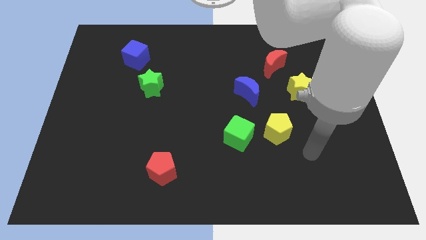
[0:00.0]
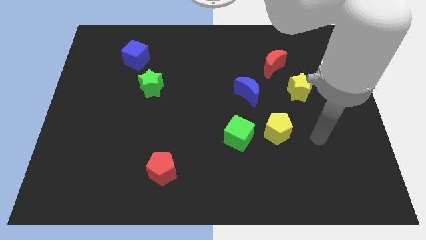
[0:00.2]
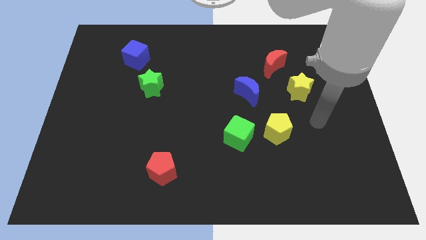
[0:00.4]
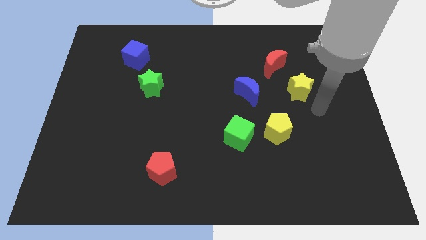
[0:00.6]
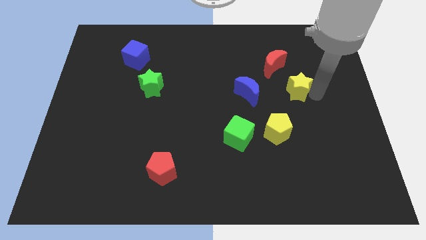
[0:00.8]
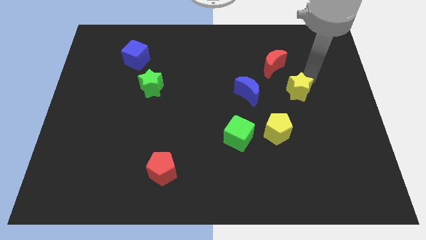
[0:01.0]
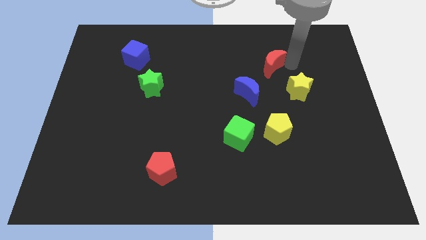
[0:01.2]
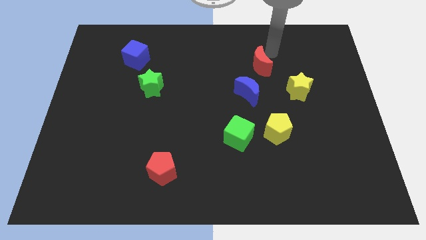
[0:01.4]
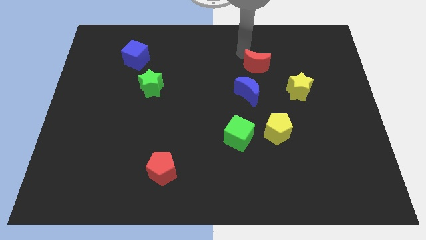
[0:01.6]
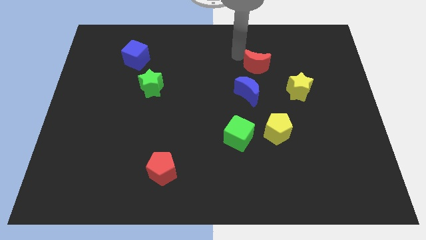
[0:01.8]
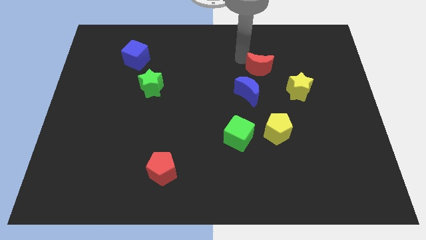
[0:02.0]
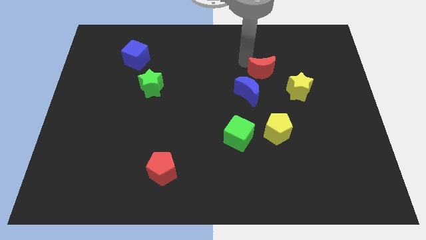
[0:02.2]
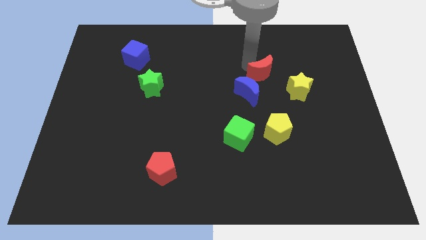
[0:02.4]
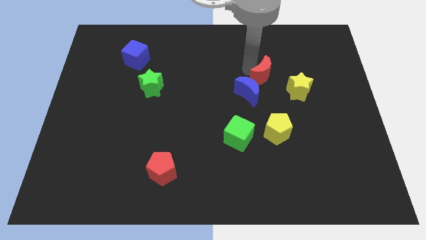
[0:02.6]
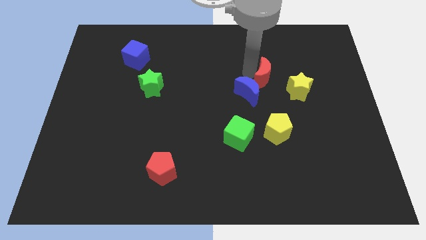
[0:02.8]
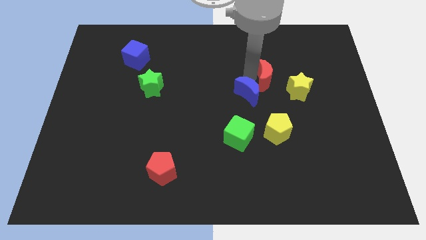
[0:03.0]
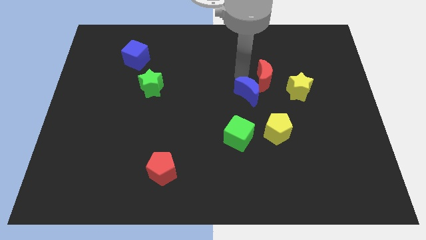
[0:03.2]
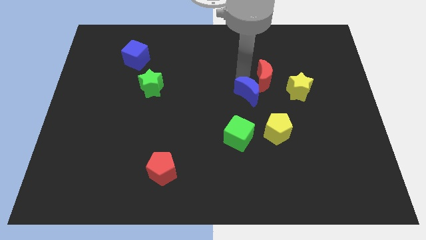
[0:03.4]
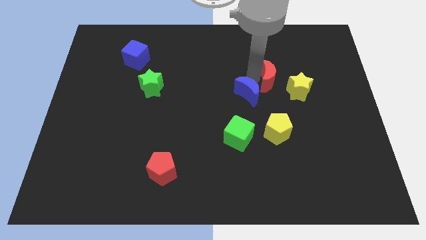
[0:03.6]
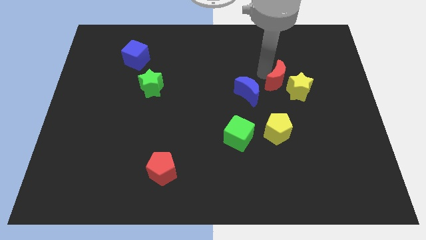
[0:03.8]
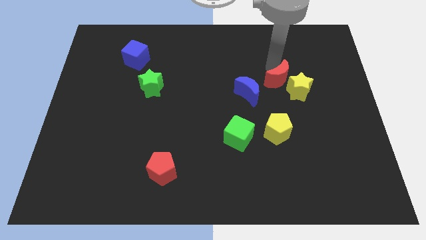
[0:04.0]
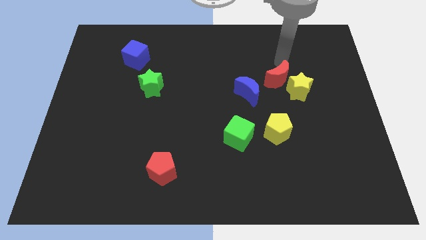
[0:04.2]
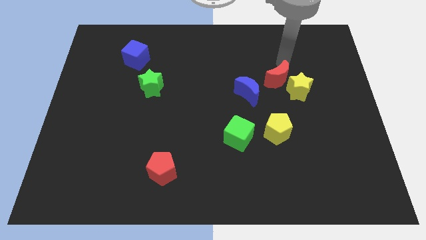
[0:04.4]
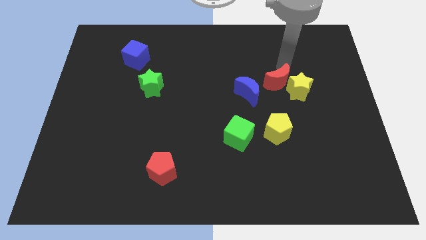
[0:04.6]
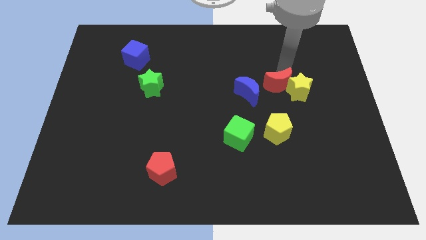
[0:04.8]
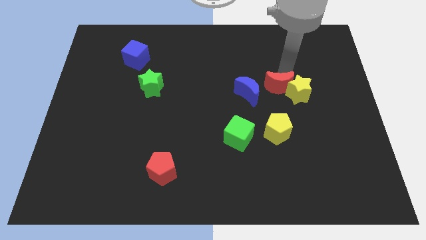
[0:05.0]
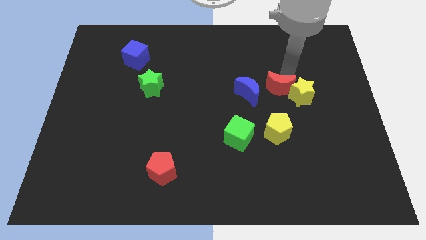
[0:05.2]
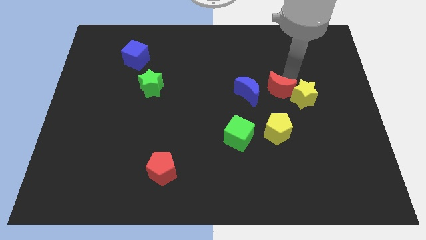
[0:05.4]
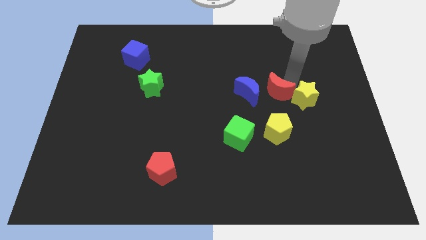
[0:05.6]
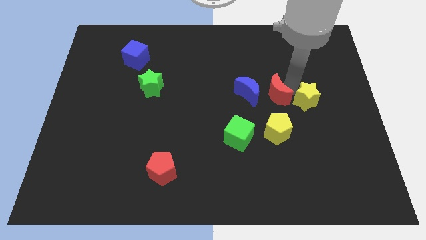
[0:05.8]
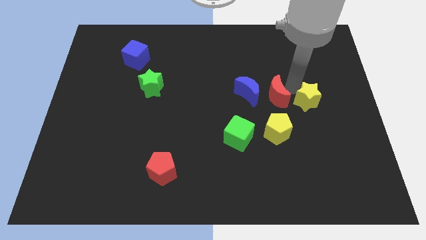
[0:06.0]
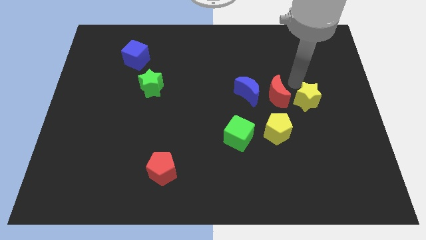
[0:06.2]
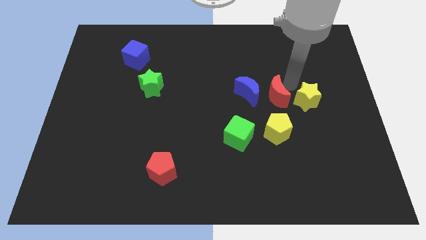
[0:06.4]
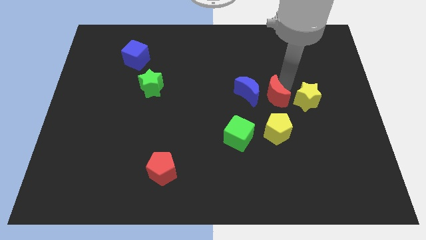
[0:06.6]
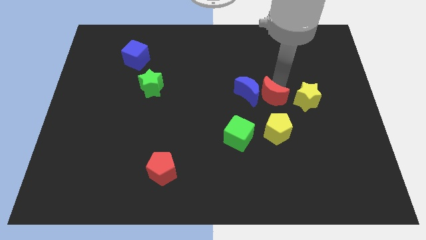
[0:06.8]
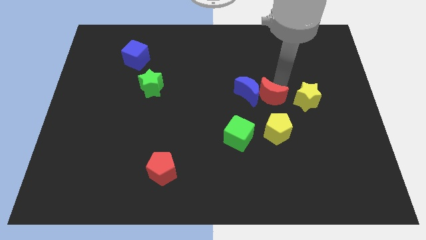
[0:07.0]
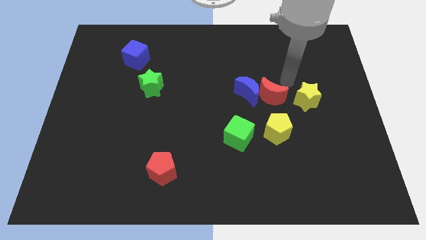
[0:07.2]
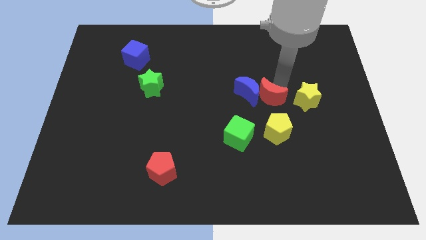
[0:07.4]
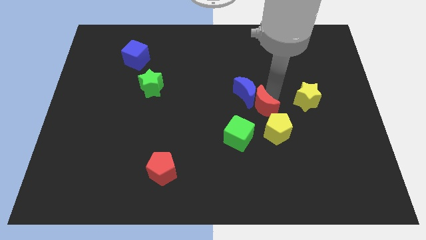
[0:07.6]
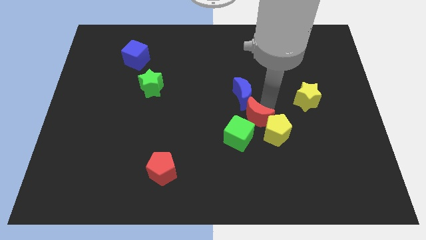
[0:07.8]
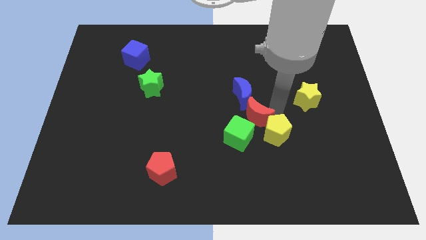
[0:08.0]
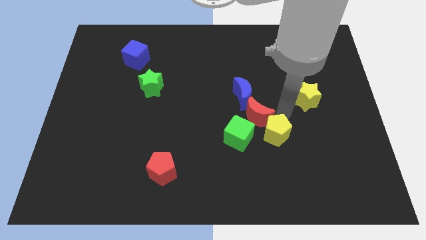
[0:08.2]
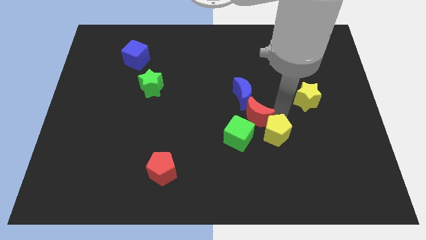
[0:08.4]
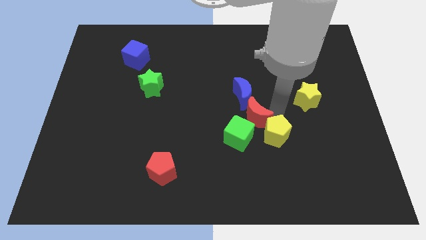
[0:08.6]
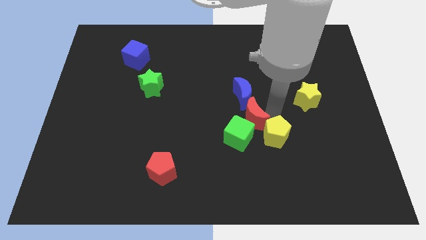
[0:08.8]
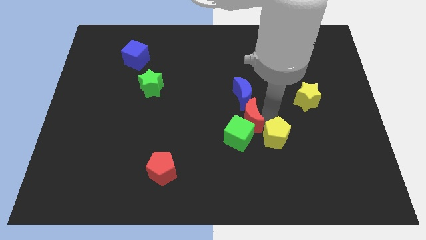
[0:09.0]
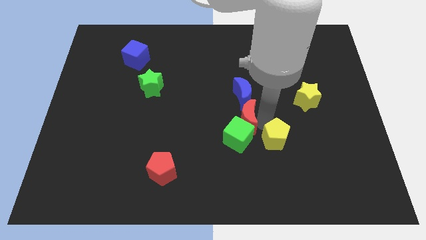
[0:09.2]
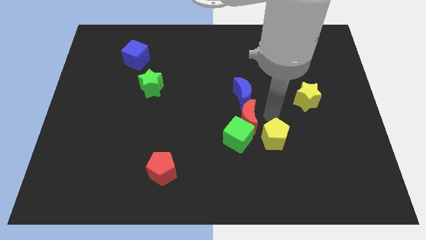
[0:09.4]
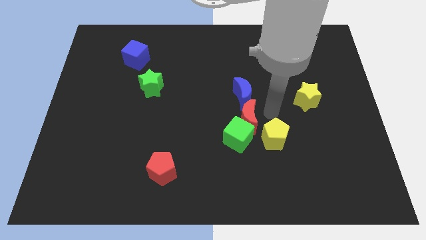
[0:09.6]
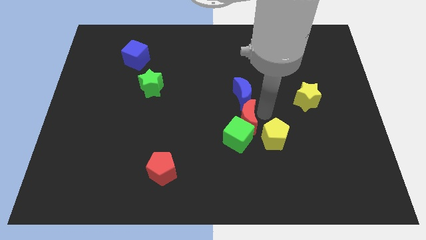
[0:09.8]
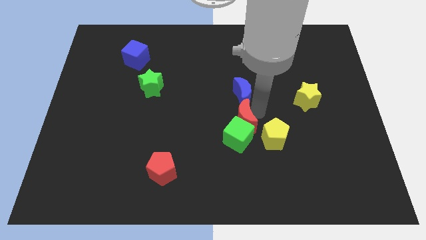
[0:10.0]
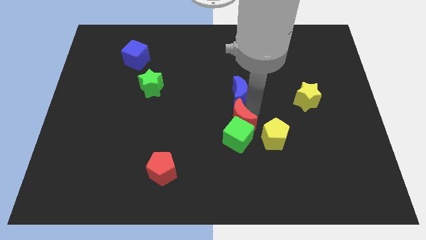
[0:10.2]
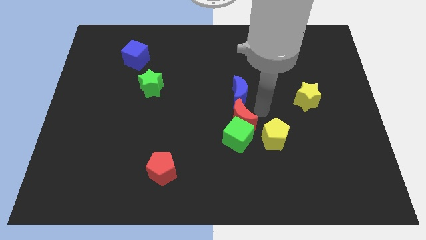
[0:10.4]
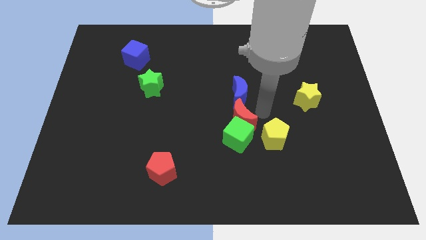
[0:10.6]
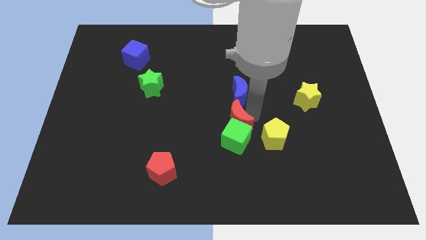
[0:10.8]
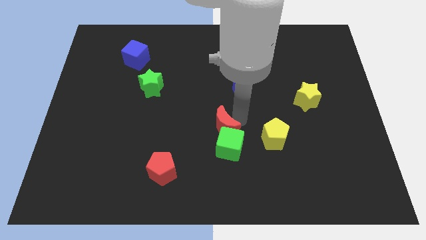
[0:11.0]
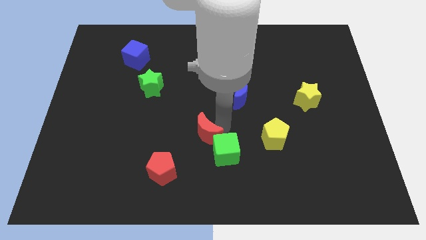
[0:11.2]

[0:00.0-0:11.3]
put the red moon just left of the green cube

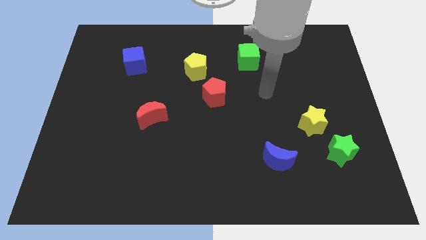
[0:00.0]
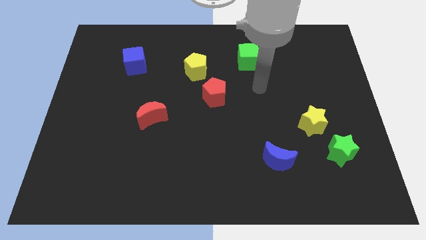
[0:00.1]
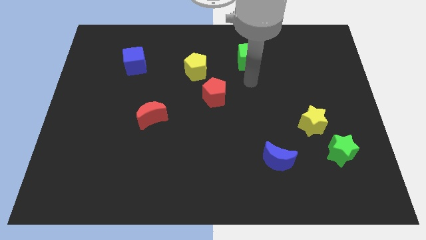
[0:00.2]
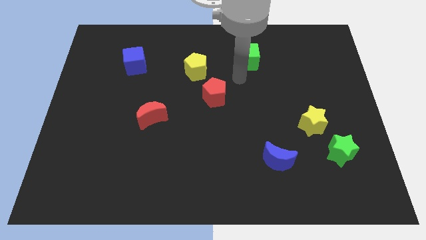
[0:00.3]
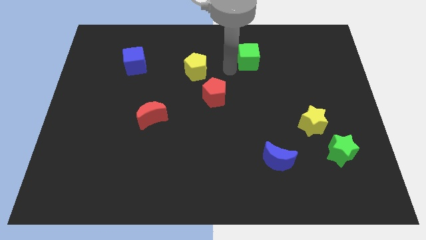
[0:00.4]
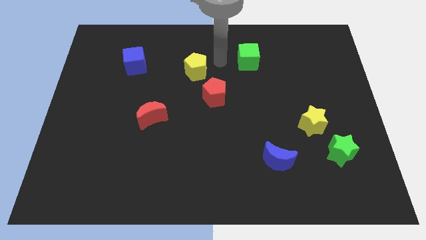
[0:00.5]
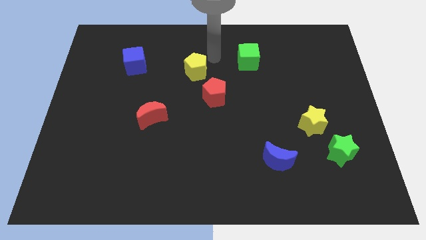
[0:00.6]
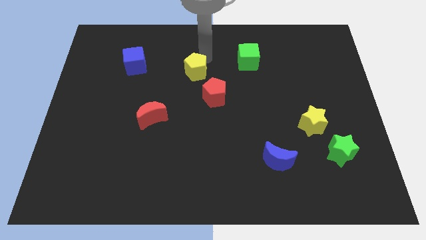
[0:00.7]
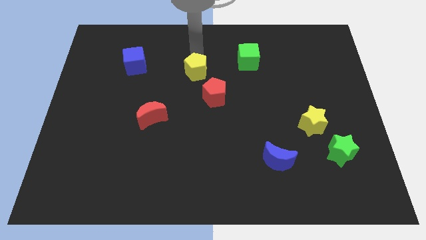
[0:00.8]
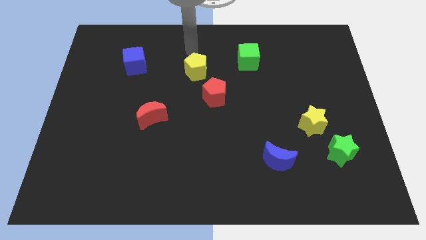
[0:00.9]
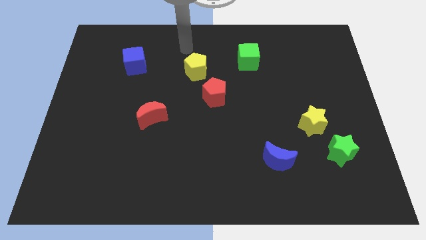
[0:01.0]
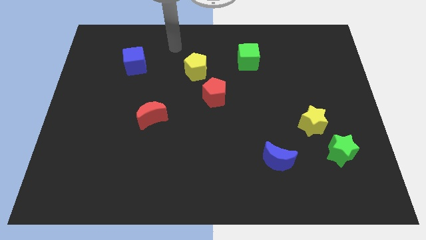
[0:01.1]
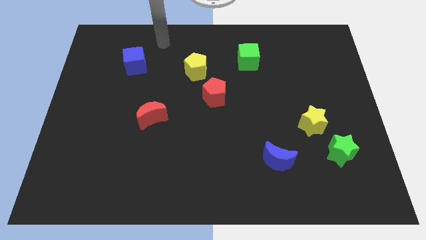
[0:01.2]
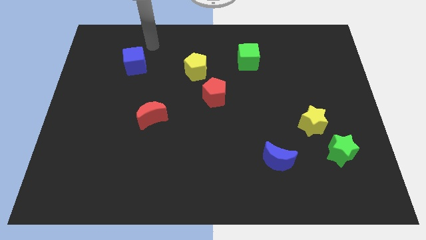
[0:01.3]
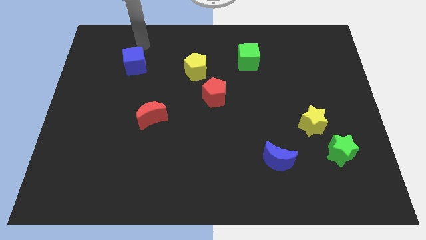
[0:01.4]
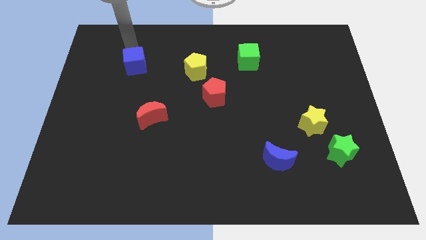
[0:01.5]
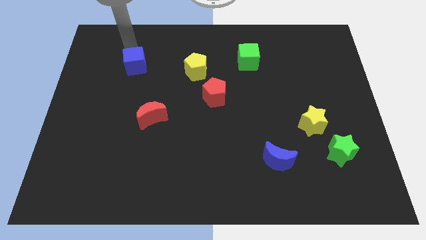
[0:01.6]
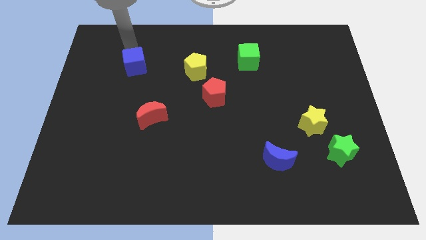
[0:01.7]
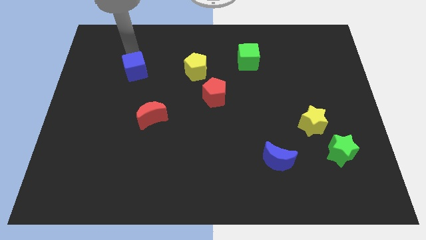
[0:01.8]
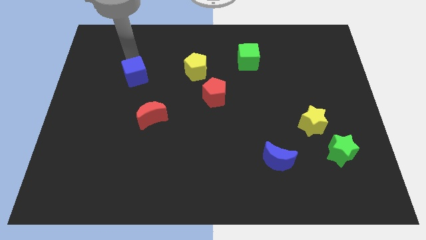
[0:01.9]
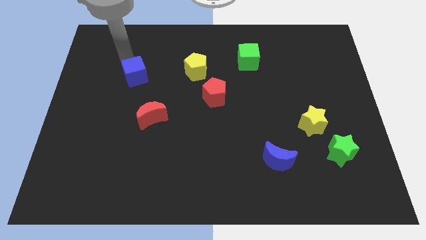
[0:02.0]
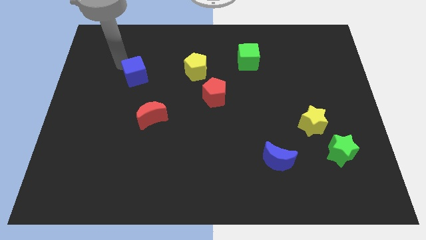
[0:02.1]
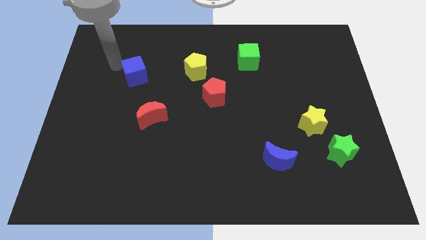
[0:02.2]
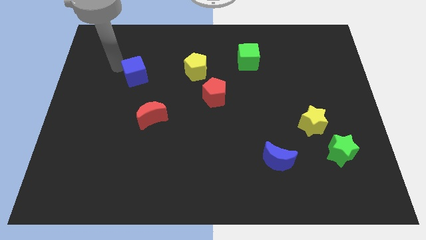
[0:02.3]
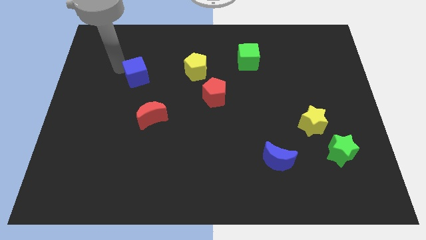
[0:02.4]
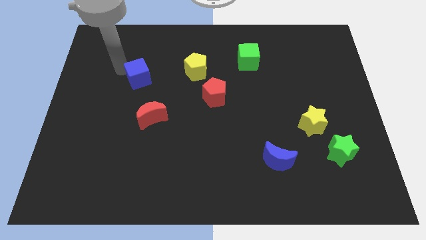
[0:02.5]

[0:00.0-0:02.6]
slide the blue cube to the top of the red moon
